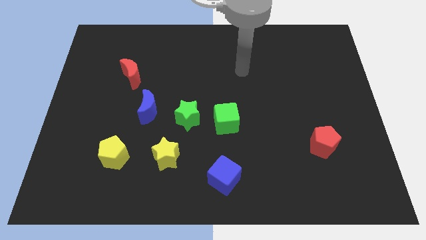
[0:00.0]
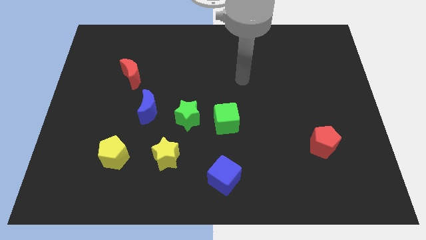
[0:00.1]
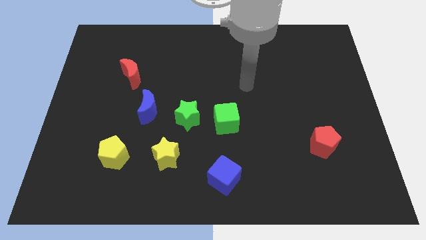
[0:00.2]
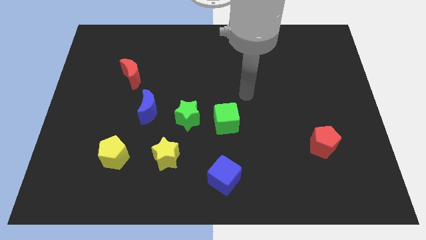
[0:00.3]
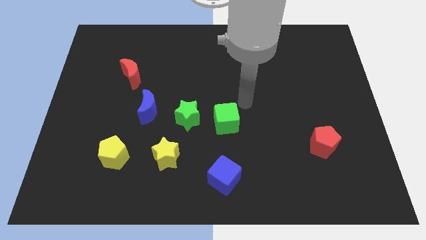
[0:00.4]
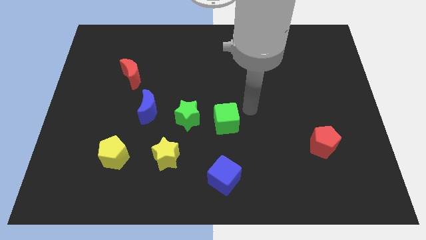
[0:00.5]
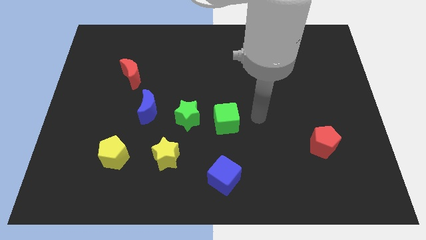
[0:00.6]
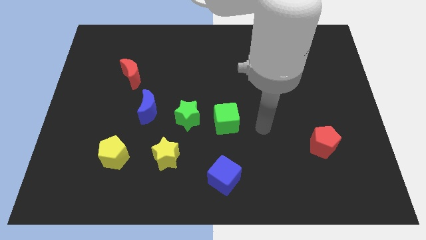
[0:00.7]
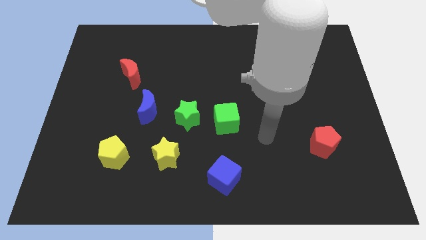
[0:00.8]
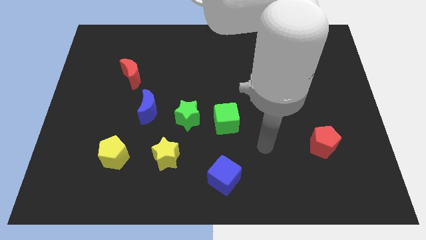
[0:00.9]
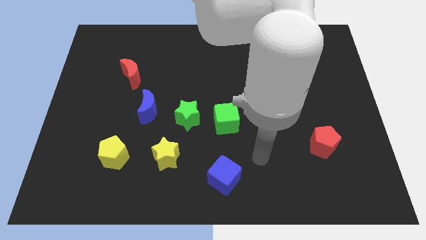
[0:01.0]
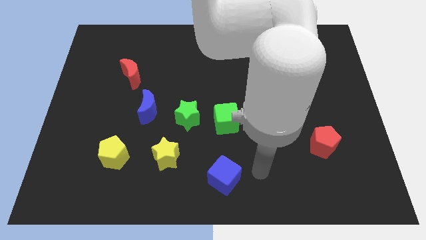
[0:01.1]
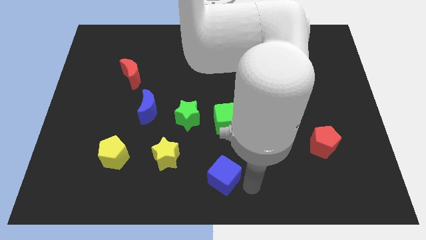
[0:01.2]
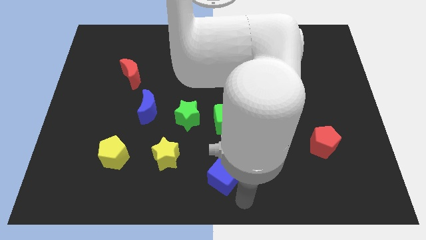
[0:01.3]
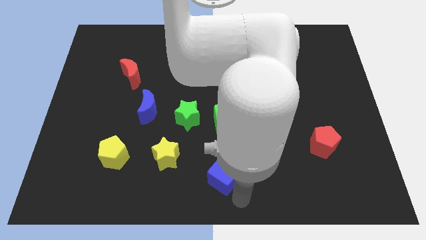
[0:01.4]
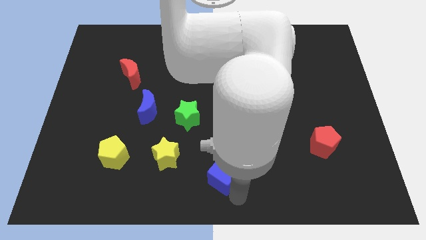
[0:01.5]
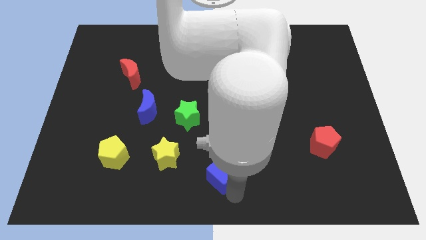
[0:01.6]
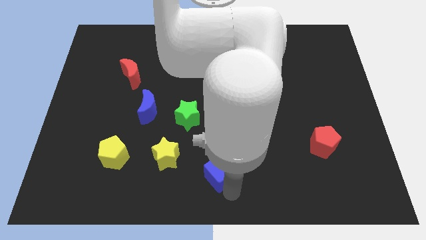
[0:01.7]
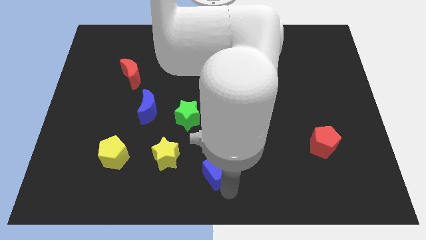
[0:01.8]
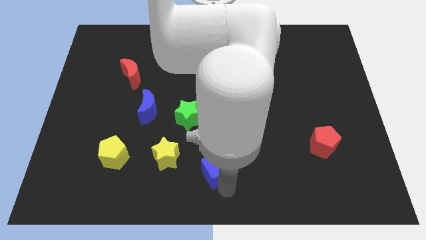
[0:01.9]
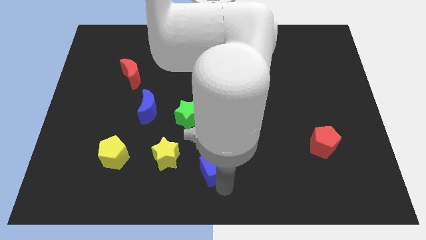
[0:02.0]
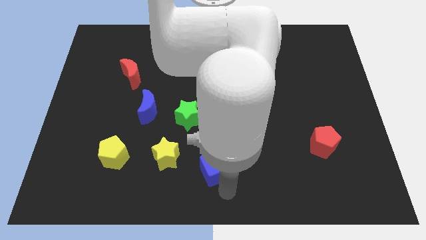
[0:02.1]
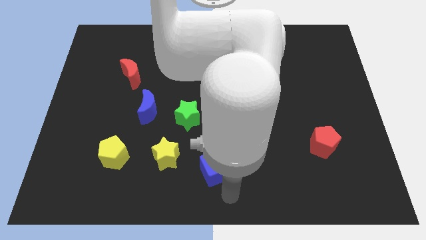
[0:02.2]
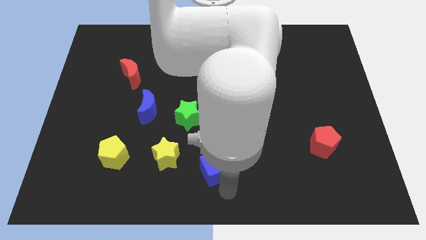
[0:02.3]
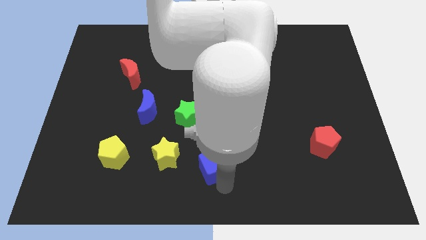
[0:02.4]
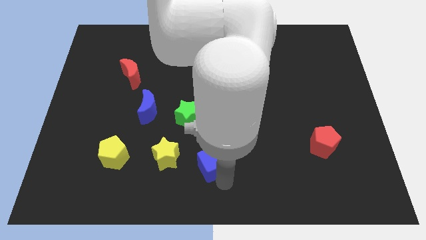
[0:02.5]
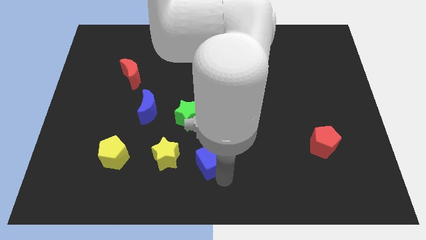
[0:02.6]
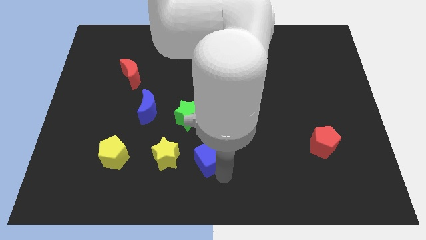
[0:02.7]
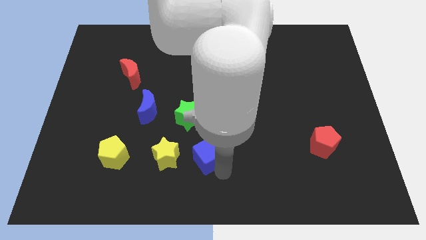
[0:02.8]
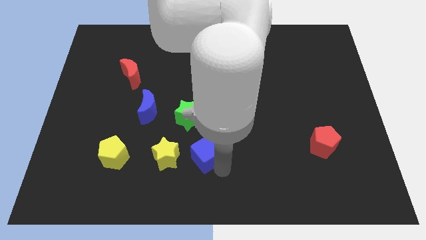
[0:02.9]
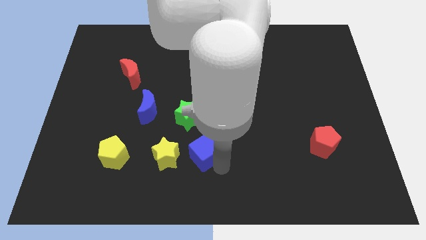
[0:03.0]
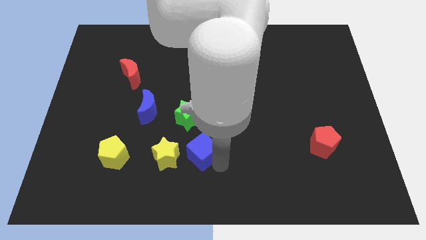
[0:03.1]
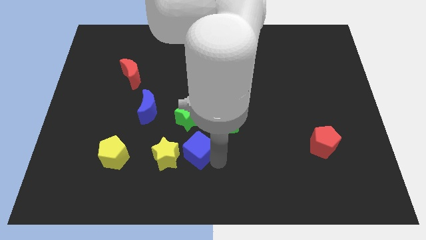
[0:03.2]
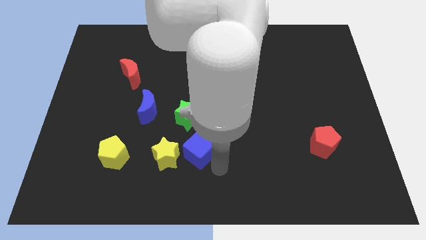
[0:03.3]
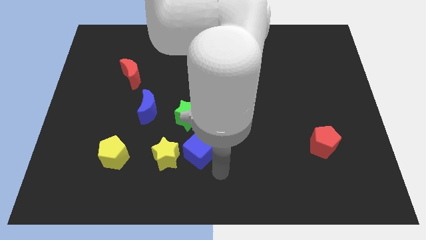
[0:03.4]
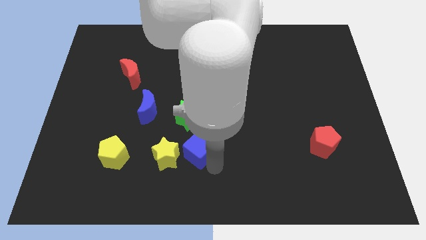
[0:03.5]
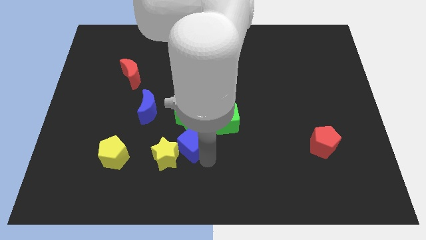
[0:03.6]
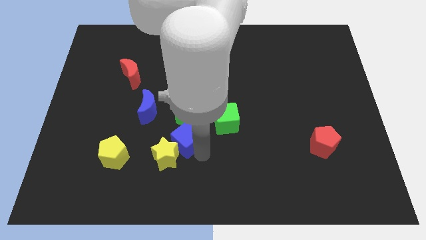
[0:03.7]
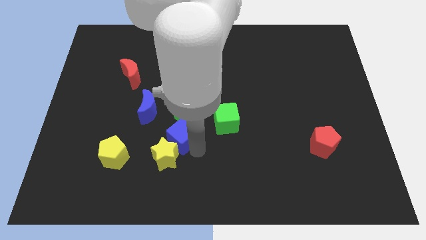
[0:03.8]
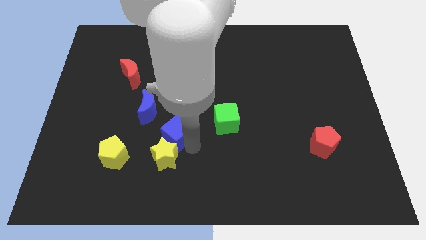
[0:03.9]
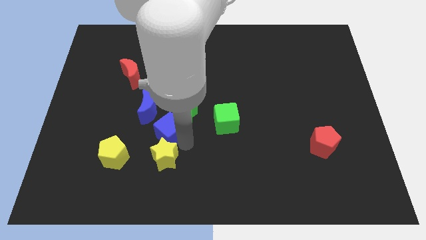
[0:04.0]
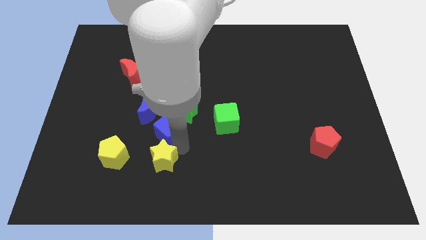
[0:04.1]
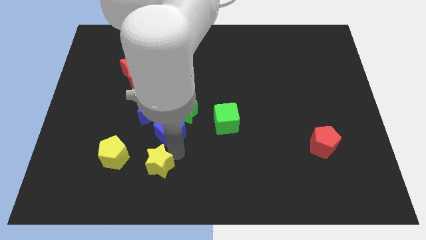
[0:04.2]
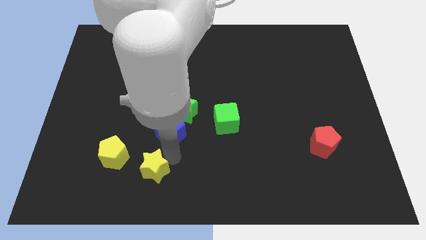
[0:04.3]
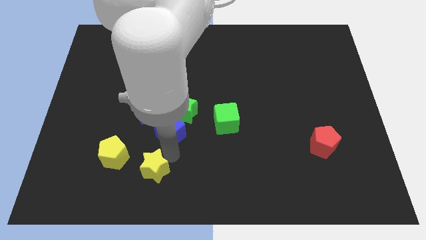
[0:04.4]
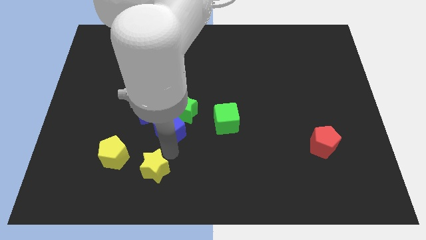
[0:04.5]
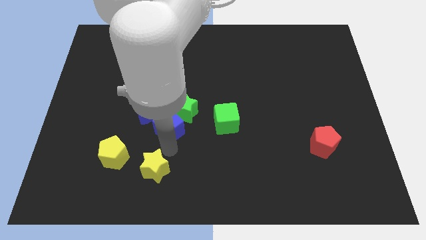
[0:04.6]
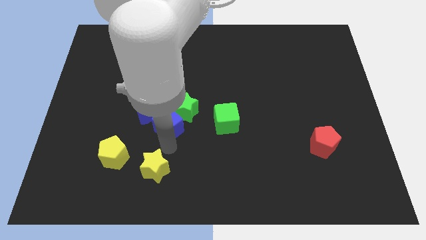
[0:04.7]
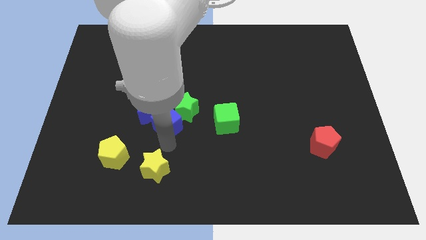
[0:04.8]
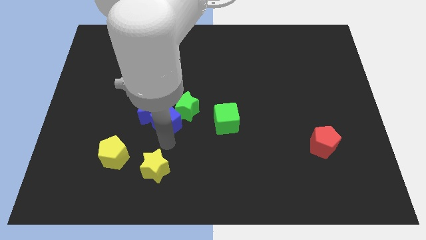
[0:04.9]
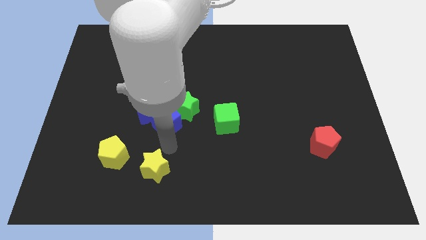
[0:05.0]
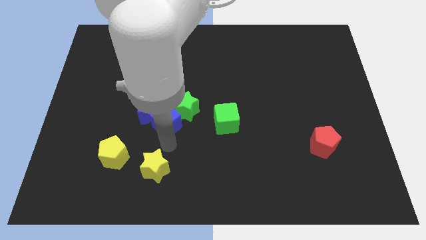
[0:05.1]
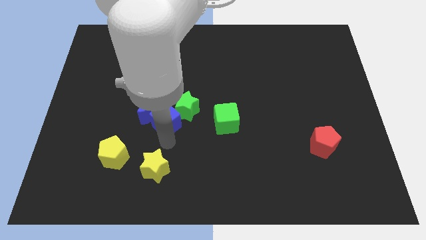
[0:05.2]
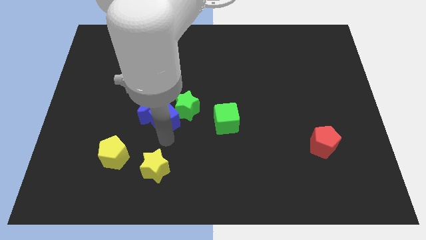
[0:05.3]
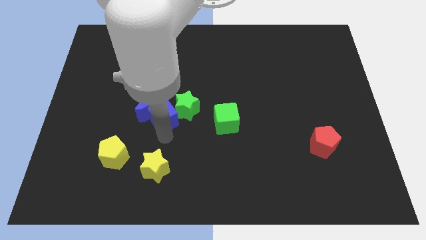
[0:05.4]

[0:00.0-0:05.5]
push the blue cube upwards and then left

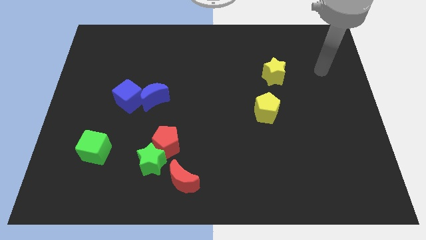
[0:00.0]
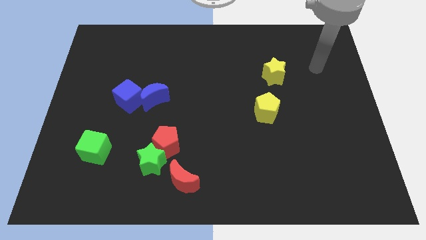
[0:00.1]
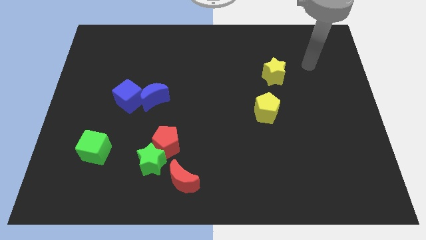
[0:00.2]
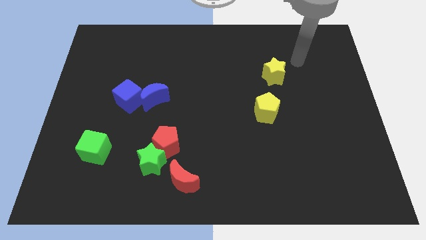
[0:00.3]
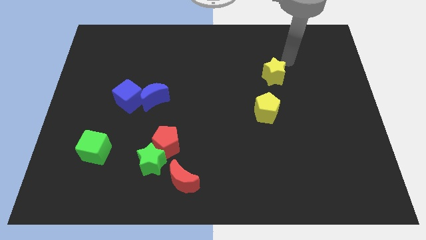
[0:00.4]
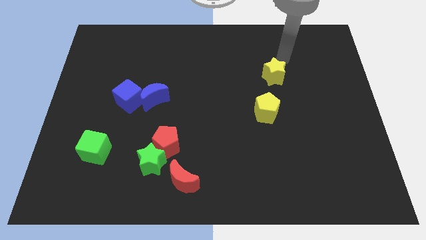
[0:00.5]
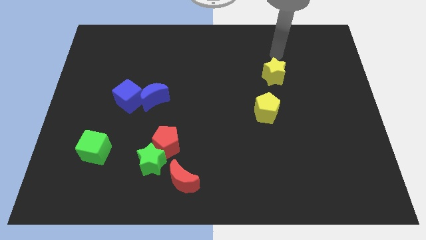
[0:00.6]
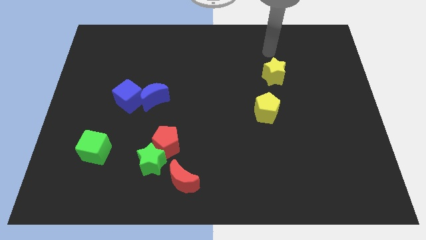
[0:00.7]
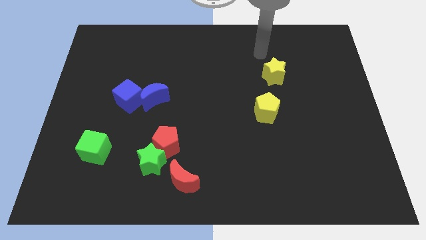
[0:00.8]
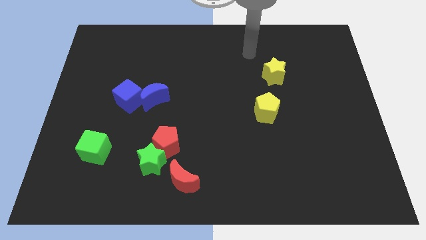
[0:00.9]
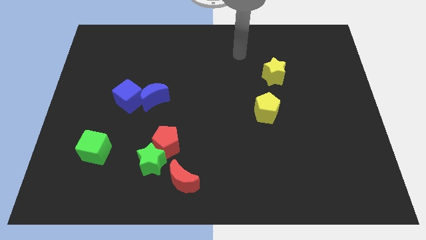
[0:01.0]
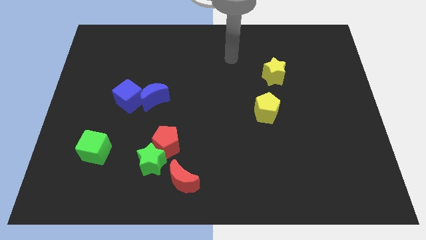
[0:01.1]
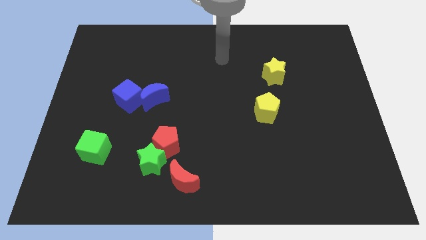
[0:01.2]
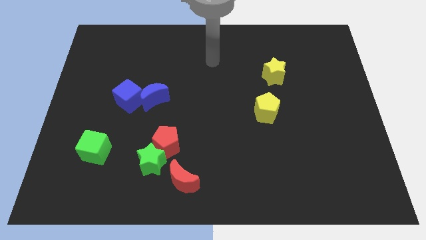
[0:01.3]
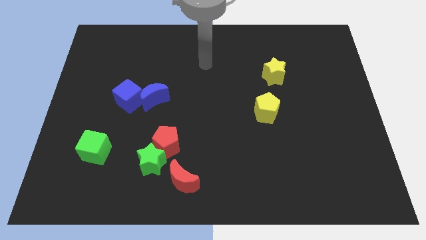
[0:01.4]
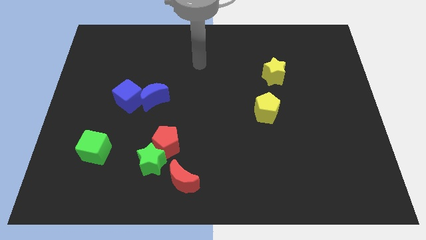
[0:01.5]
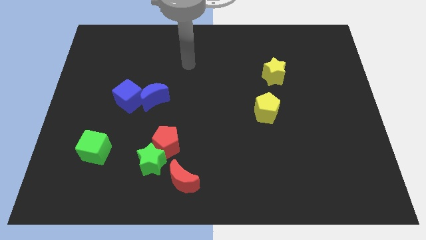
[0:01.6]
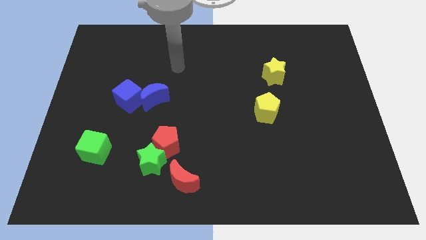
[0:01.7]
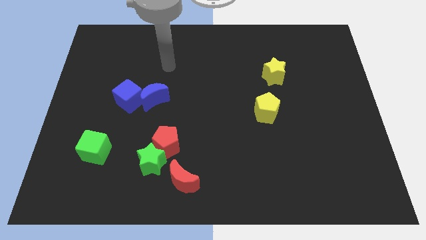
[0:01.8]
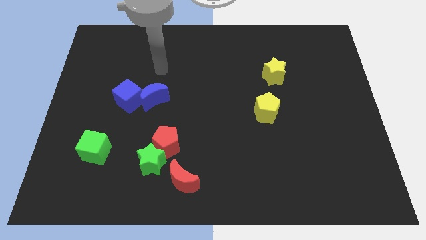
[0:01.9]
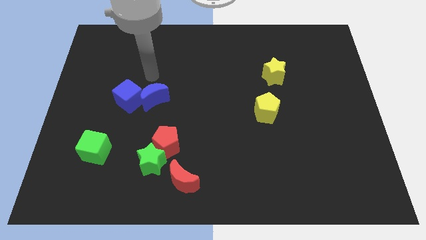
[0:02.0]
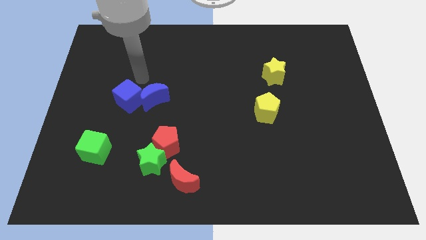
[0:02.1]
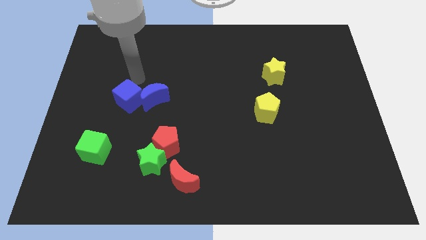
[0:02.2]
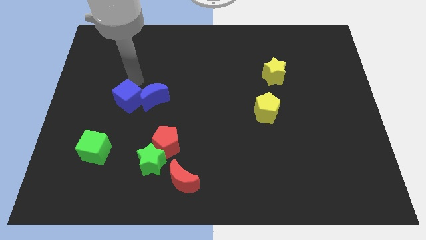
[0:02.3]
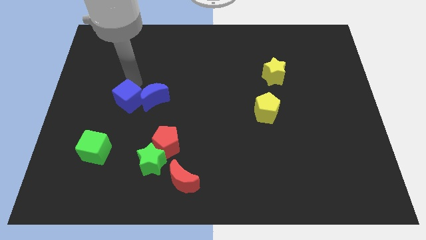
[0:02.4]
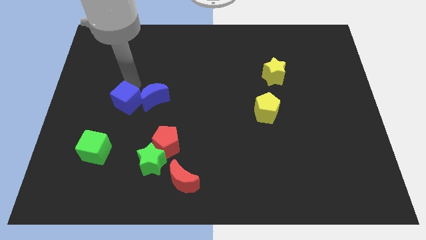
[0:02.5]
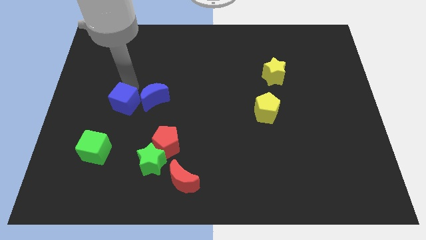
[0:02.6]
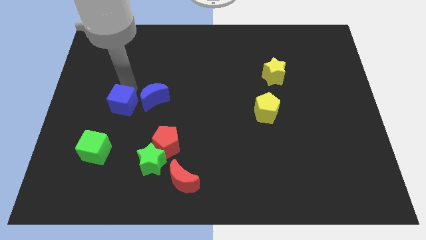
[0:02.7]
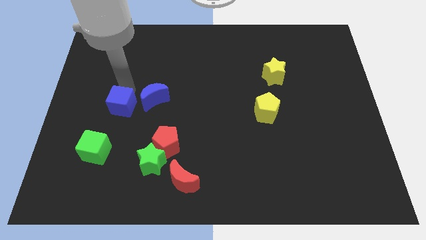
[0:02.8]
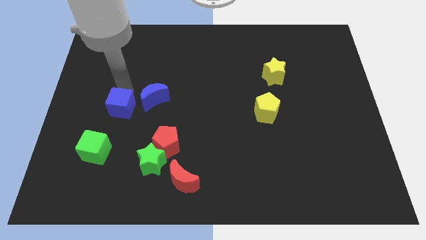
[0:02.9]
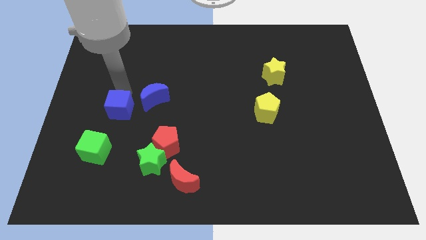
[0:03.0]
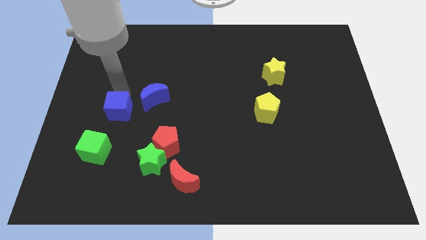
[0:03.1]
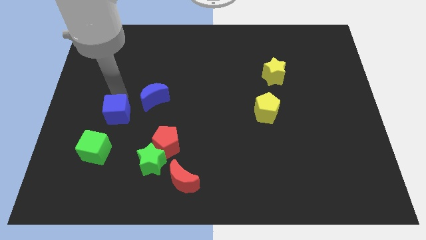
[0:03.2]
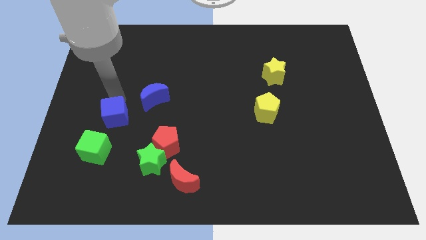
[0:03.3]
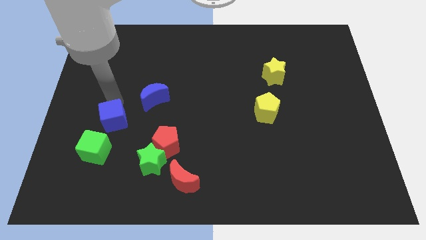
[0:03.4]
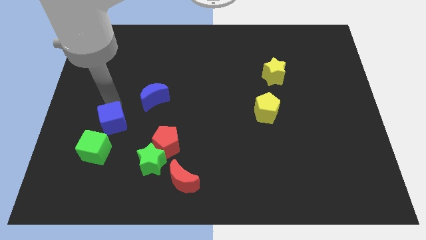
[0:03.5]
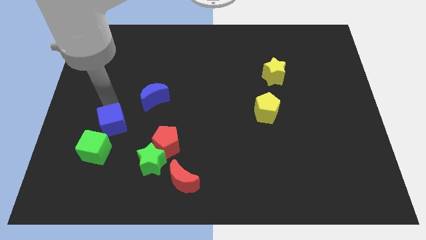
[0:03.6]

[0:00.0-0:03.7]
move the blue cube a bit down
